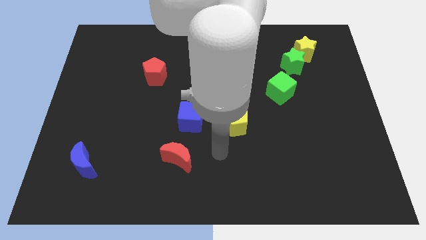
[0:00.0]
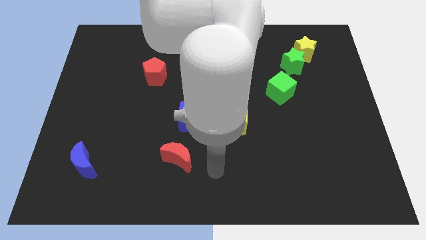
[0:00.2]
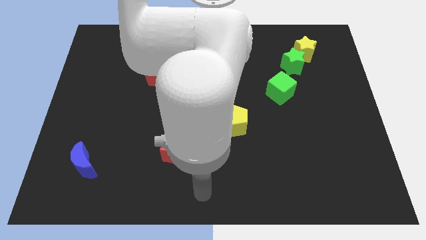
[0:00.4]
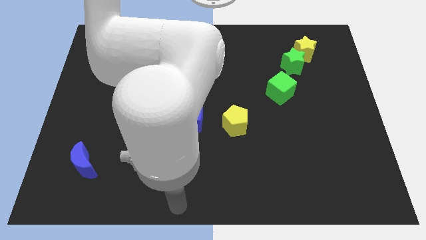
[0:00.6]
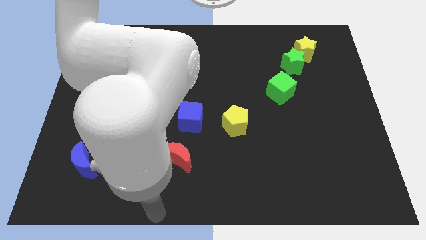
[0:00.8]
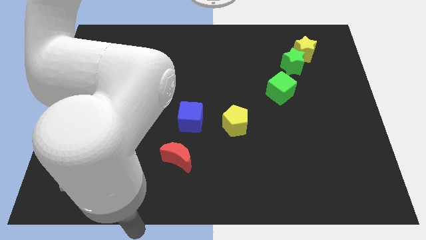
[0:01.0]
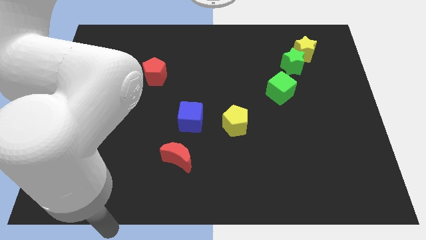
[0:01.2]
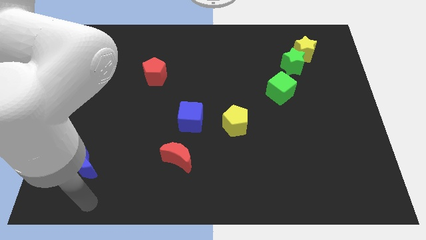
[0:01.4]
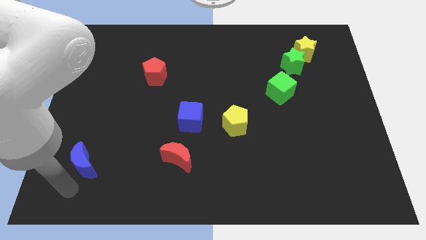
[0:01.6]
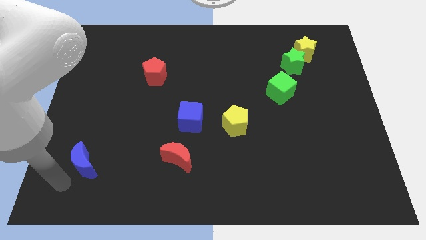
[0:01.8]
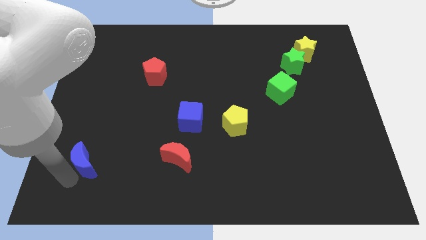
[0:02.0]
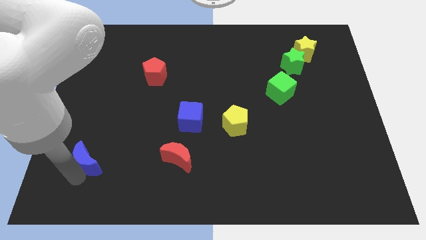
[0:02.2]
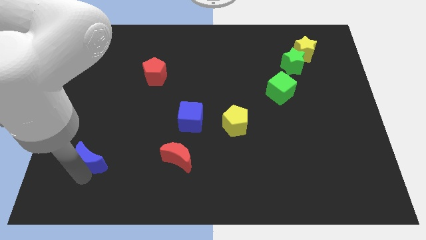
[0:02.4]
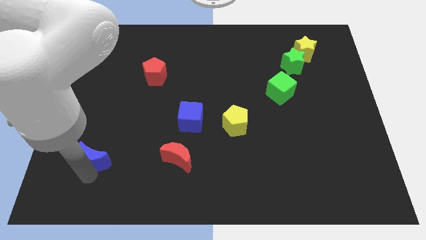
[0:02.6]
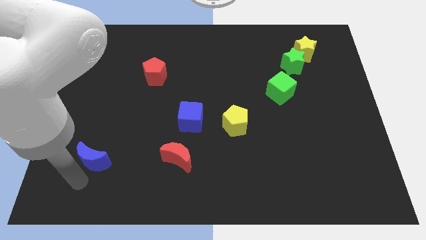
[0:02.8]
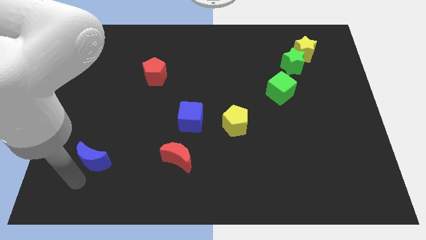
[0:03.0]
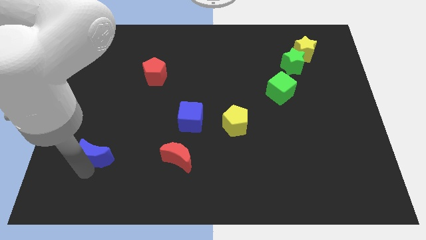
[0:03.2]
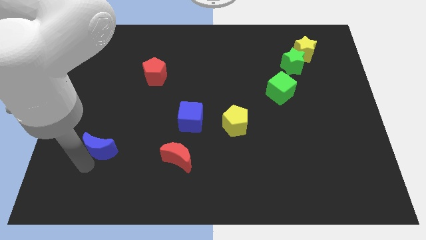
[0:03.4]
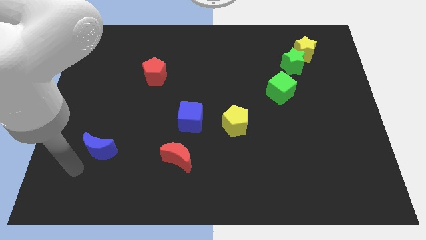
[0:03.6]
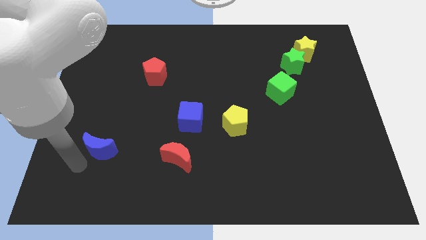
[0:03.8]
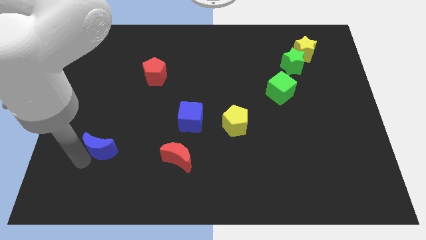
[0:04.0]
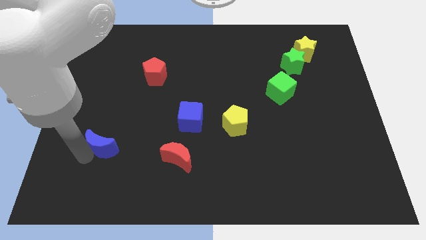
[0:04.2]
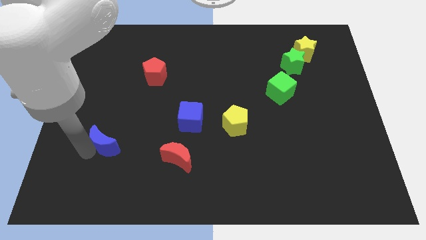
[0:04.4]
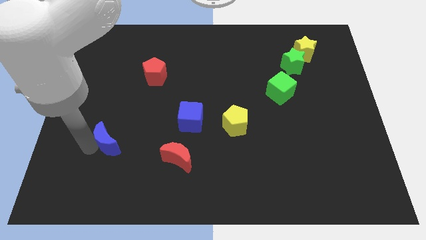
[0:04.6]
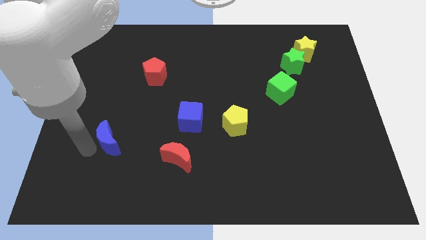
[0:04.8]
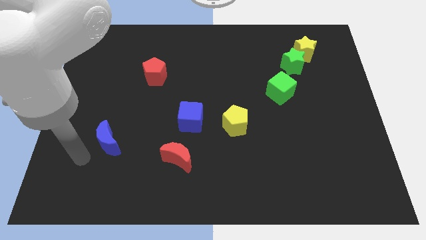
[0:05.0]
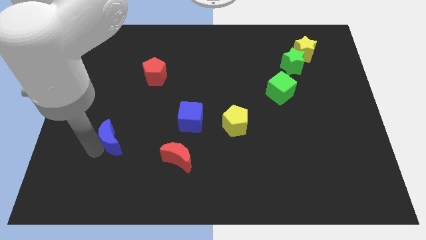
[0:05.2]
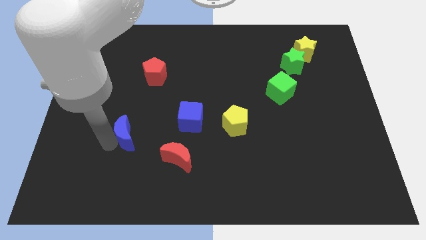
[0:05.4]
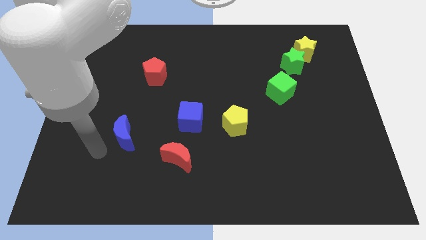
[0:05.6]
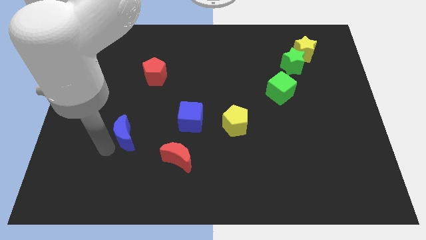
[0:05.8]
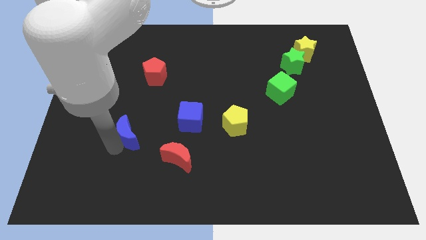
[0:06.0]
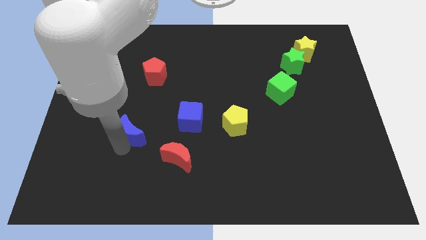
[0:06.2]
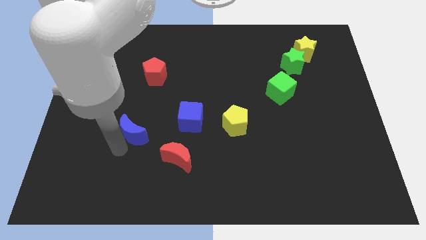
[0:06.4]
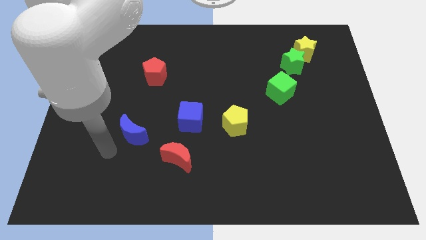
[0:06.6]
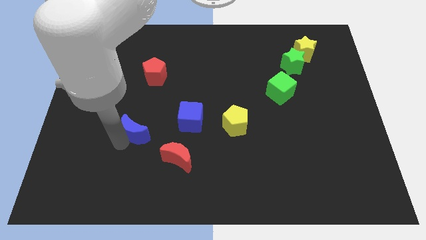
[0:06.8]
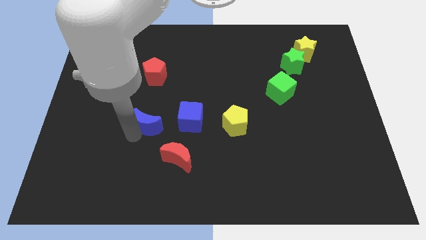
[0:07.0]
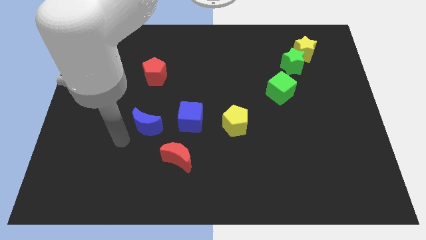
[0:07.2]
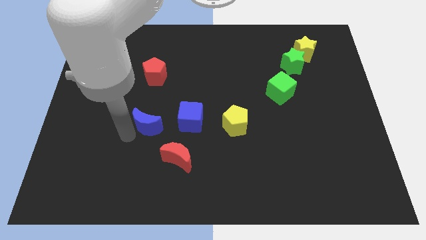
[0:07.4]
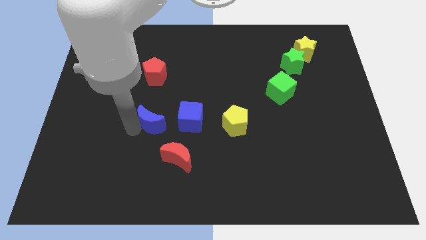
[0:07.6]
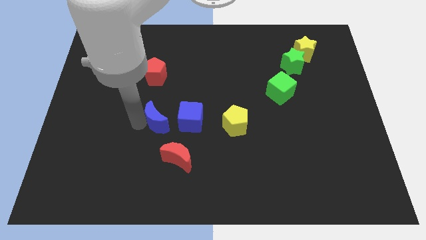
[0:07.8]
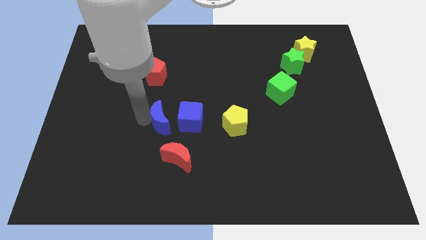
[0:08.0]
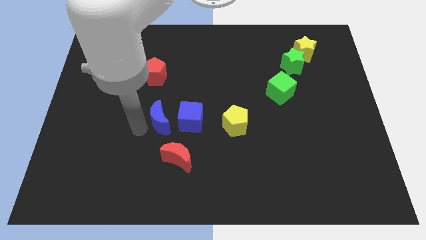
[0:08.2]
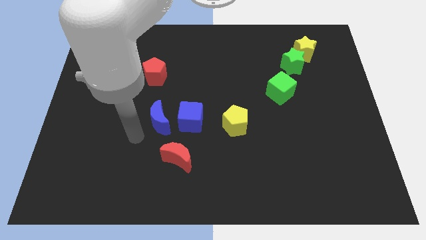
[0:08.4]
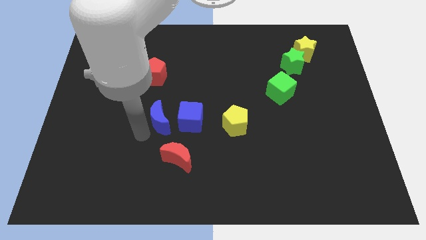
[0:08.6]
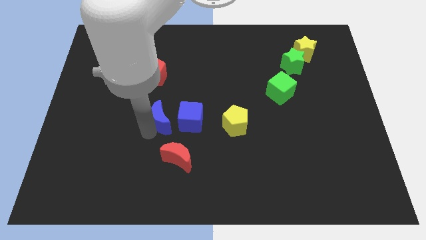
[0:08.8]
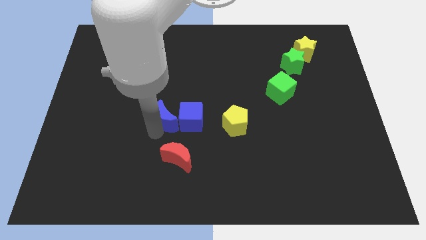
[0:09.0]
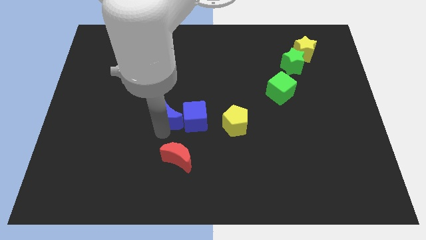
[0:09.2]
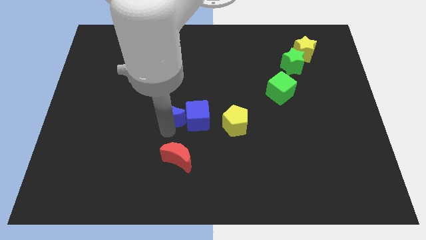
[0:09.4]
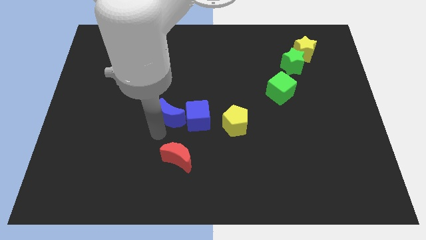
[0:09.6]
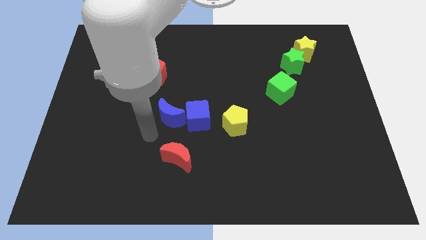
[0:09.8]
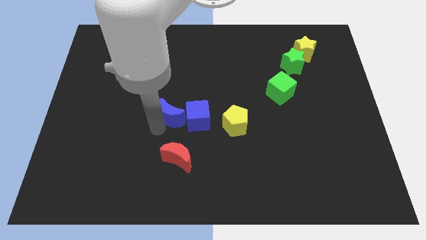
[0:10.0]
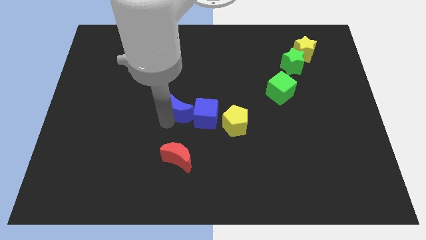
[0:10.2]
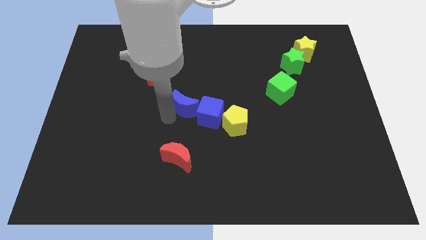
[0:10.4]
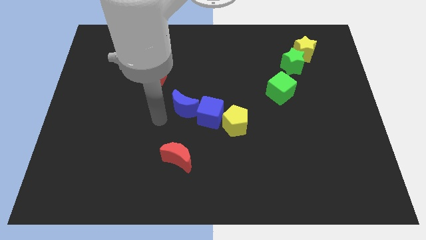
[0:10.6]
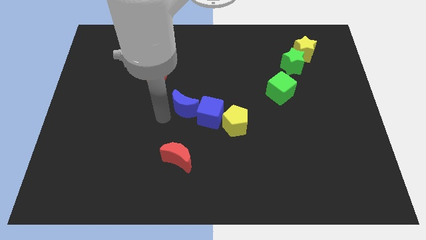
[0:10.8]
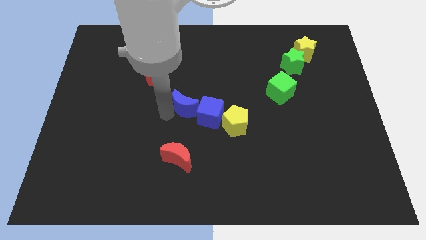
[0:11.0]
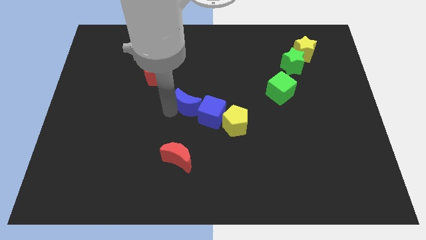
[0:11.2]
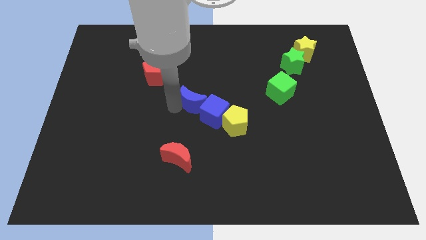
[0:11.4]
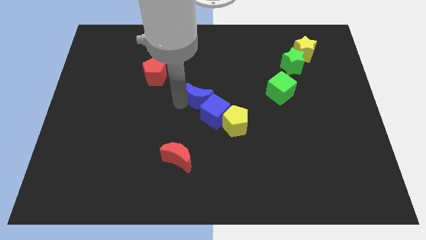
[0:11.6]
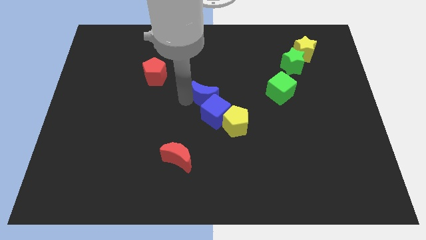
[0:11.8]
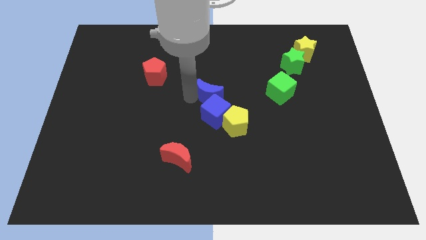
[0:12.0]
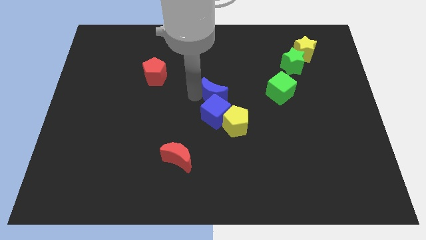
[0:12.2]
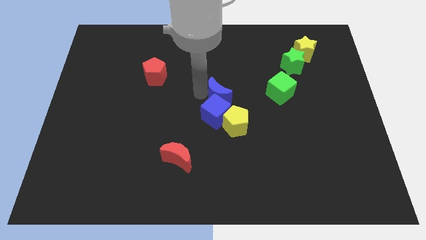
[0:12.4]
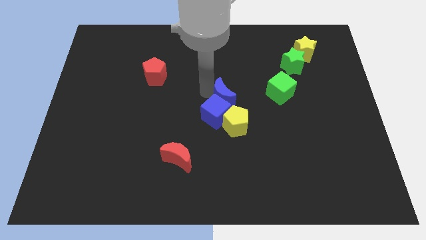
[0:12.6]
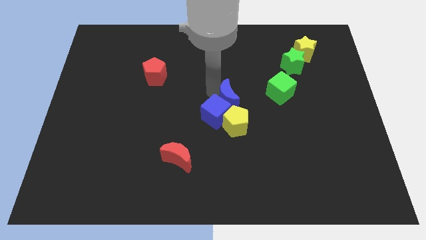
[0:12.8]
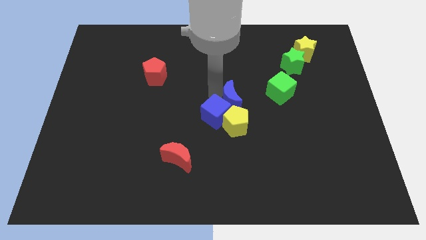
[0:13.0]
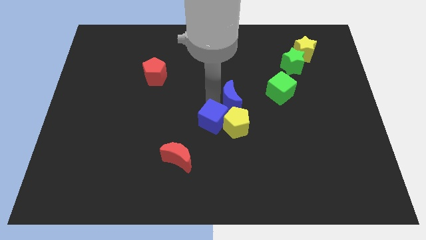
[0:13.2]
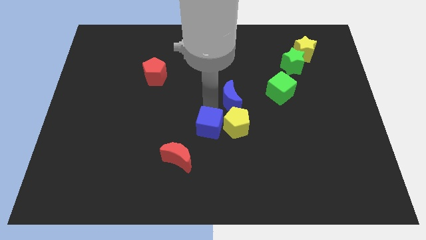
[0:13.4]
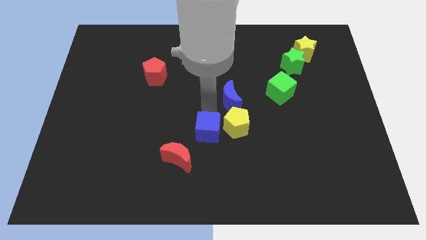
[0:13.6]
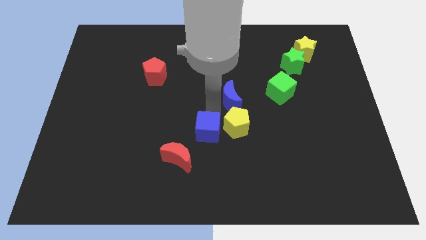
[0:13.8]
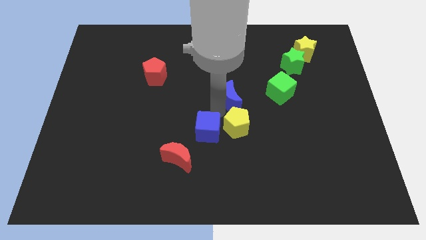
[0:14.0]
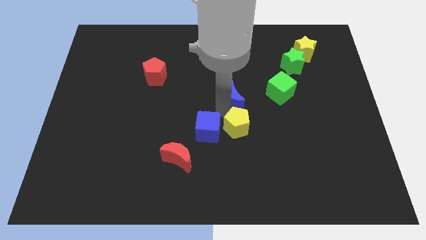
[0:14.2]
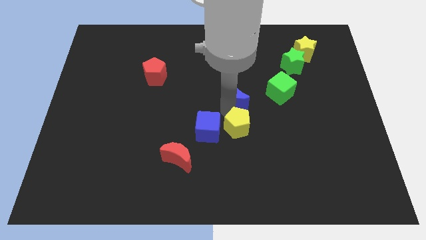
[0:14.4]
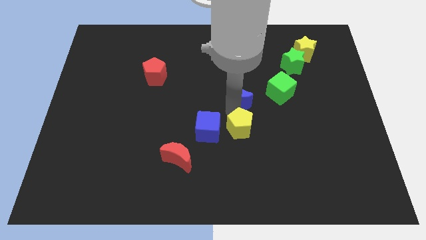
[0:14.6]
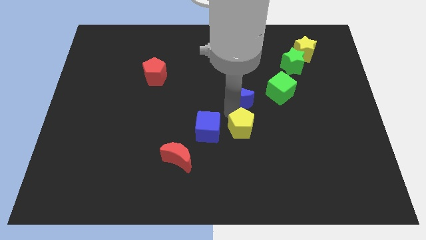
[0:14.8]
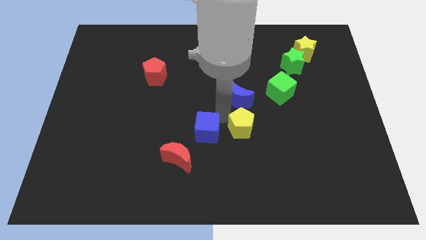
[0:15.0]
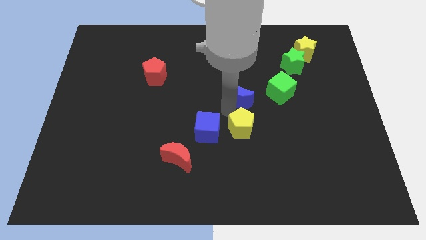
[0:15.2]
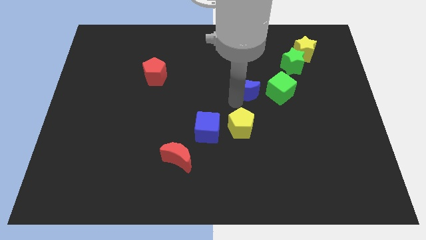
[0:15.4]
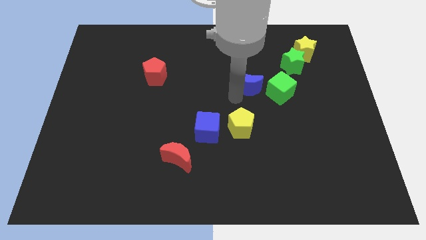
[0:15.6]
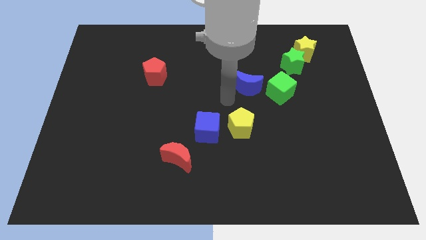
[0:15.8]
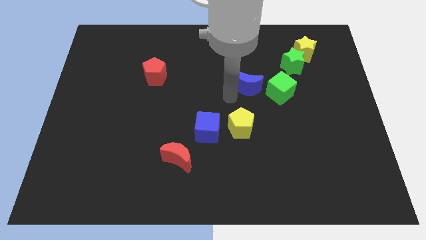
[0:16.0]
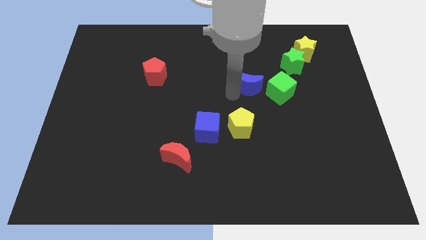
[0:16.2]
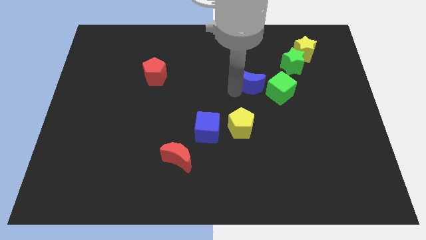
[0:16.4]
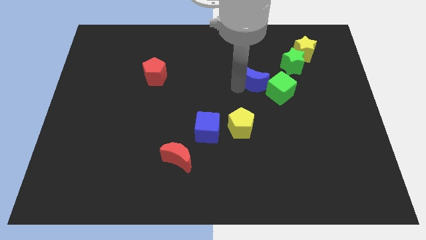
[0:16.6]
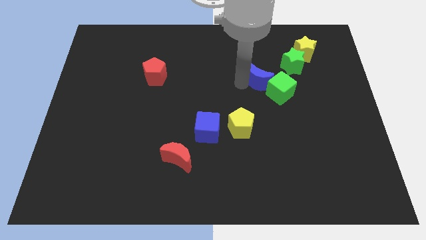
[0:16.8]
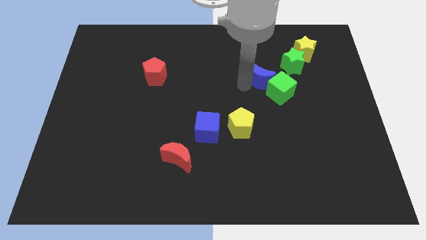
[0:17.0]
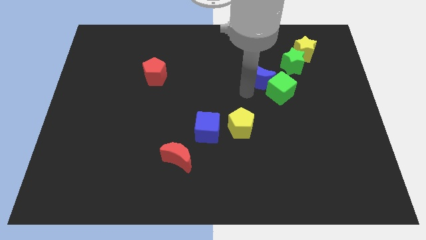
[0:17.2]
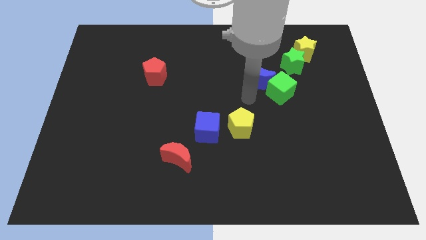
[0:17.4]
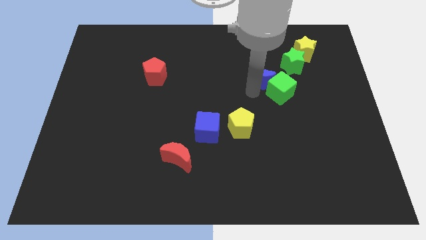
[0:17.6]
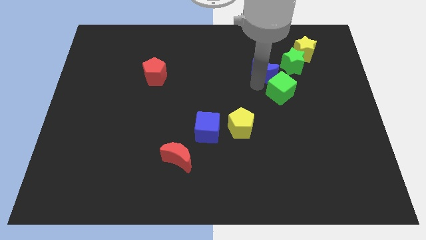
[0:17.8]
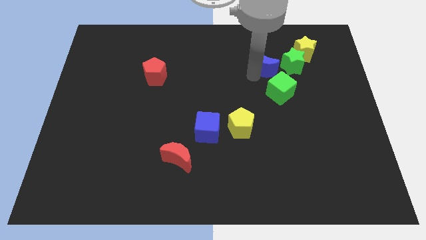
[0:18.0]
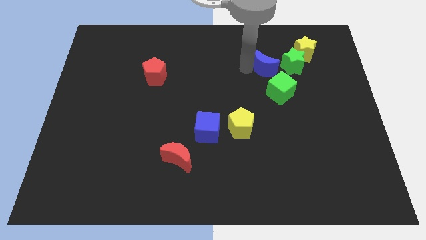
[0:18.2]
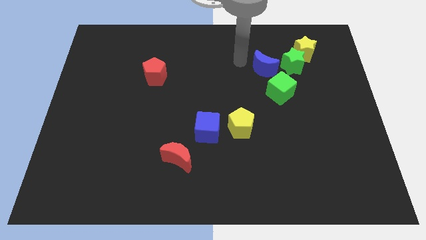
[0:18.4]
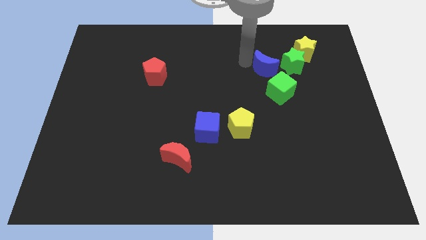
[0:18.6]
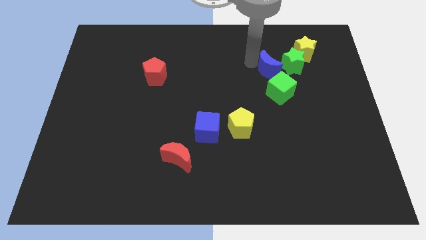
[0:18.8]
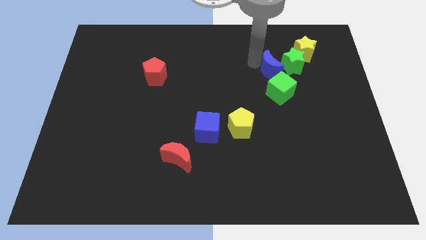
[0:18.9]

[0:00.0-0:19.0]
slide the blue moon next to the green star
